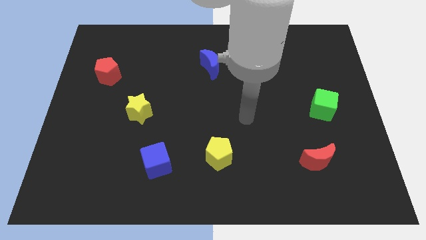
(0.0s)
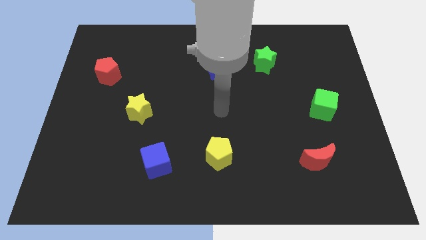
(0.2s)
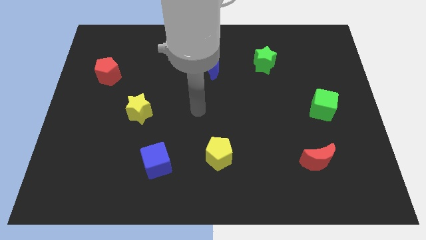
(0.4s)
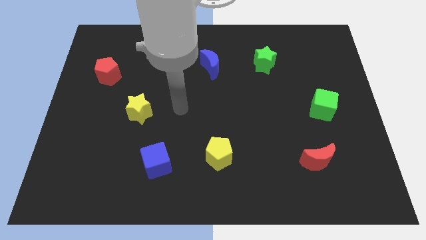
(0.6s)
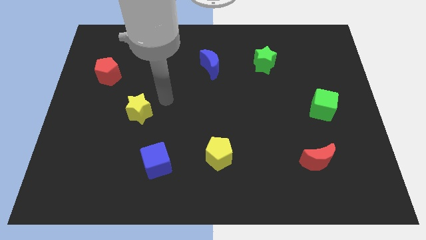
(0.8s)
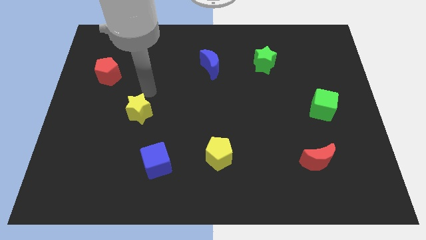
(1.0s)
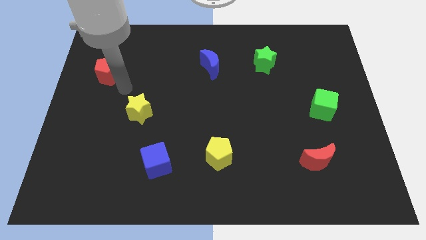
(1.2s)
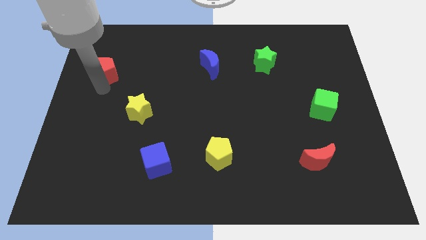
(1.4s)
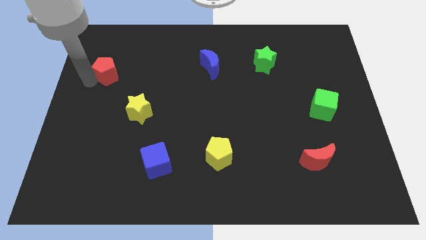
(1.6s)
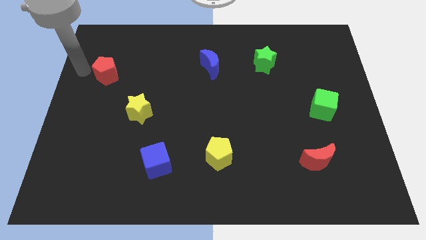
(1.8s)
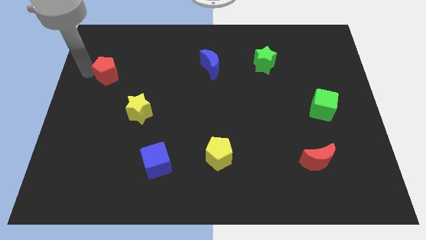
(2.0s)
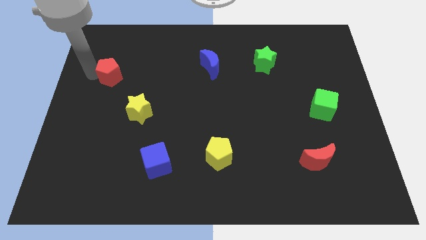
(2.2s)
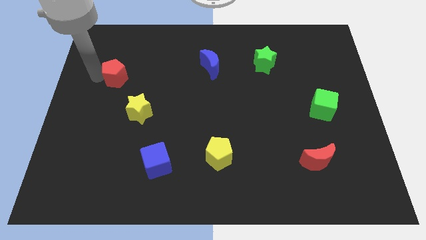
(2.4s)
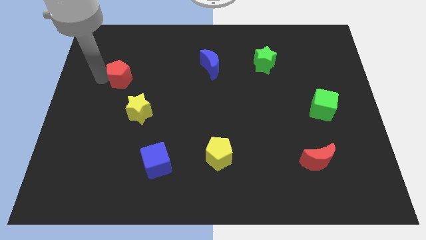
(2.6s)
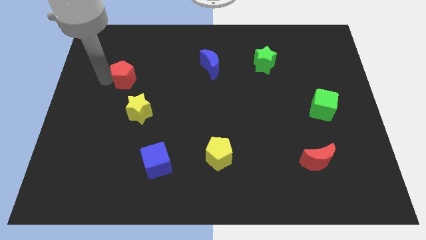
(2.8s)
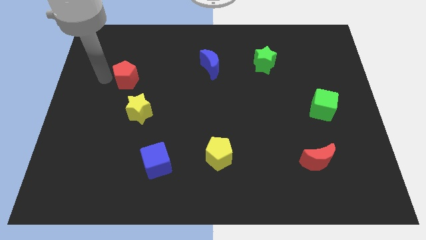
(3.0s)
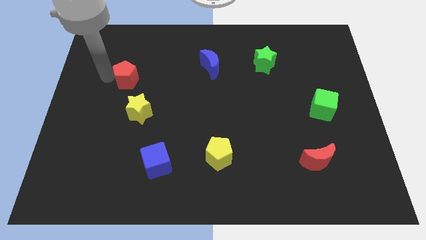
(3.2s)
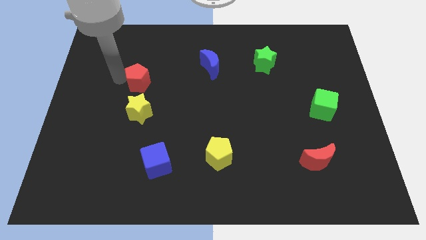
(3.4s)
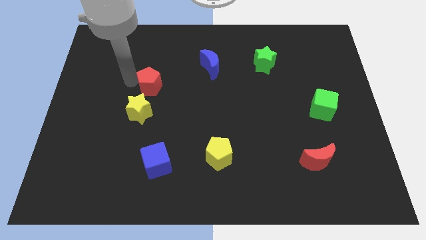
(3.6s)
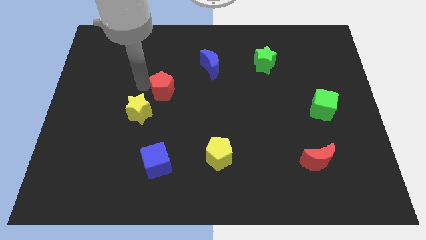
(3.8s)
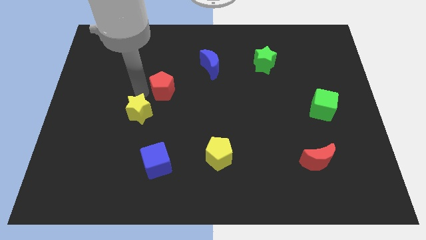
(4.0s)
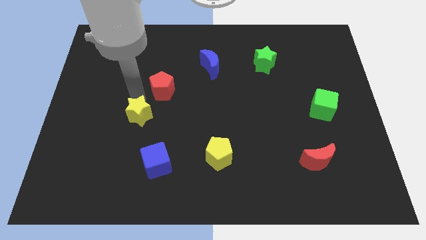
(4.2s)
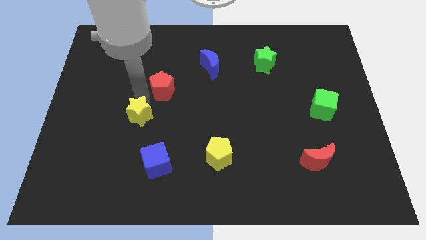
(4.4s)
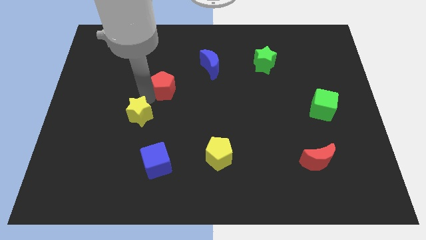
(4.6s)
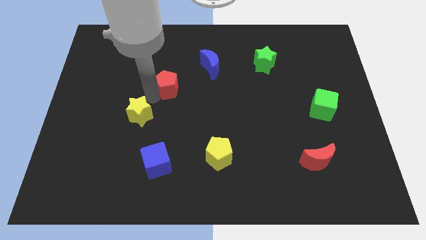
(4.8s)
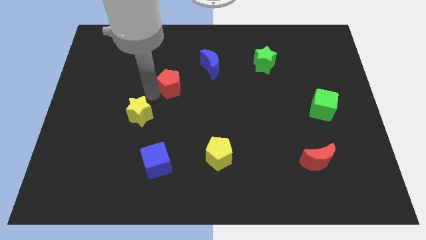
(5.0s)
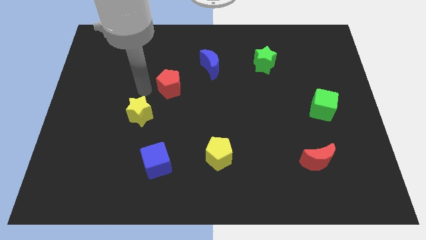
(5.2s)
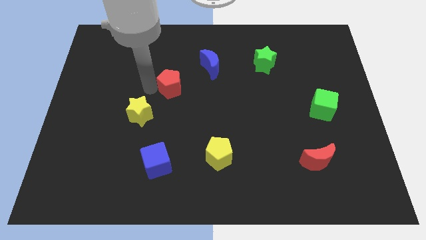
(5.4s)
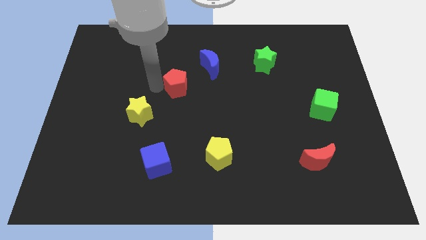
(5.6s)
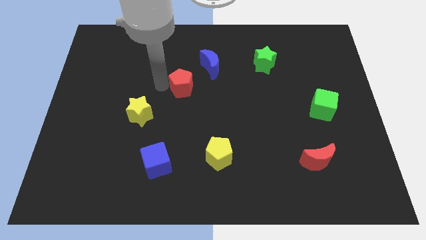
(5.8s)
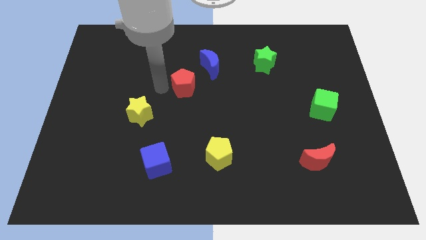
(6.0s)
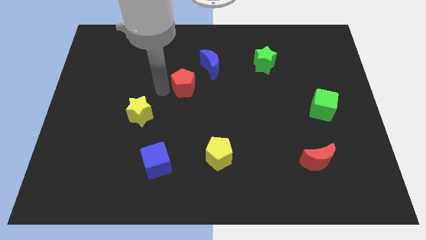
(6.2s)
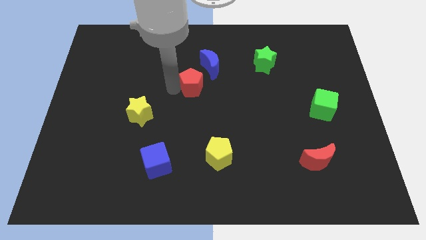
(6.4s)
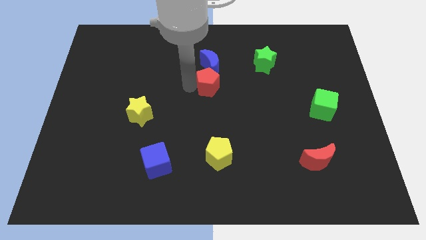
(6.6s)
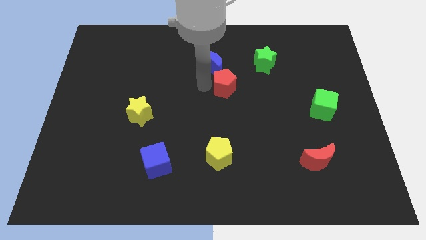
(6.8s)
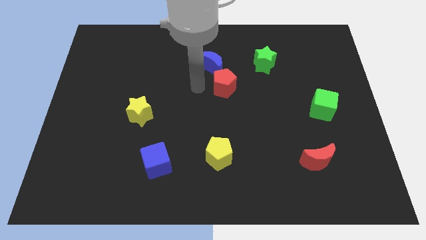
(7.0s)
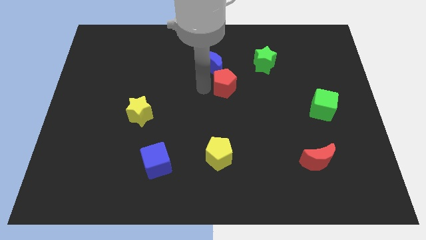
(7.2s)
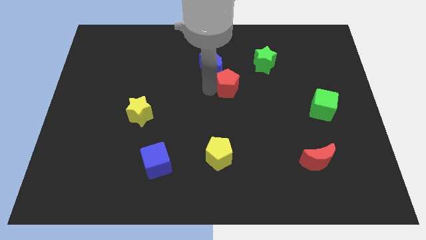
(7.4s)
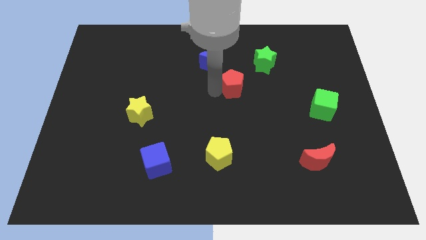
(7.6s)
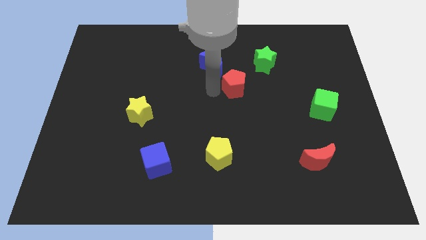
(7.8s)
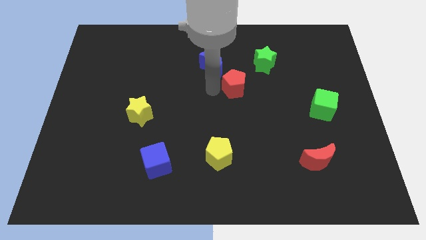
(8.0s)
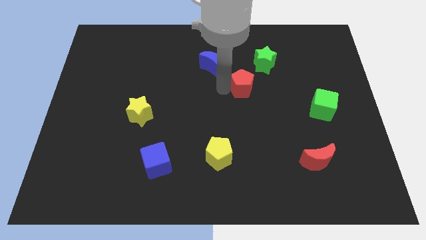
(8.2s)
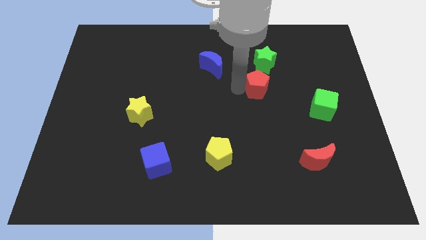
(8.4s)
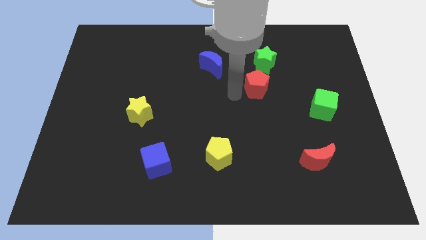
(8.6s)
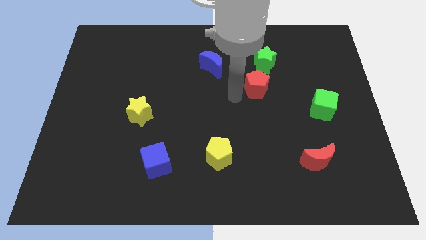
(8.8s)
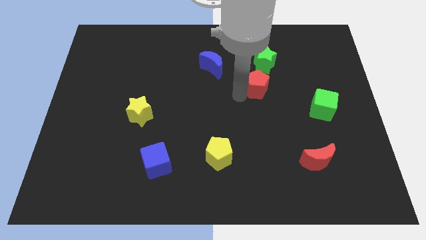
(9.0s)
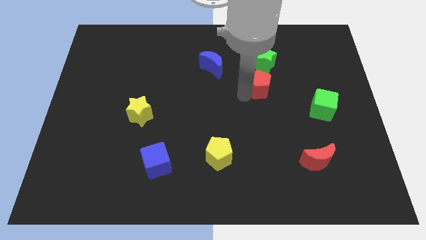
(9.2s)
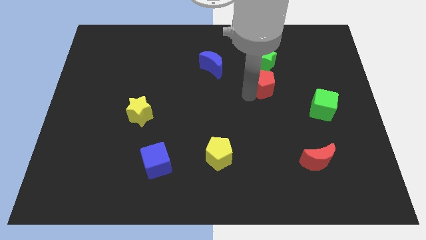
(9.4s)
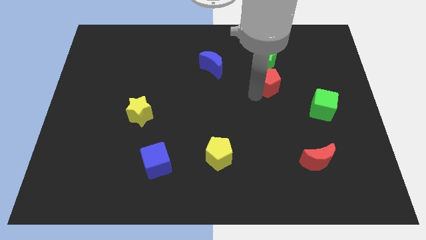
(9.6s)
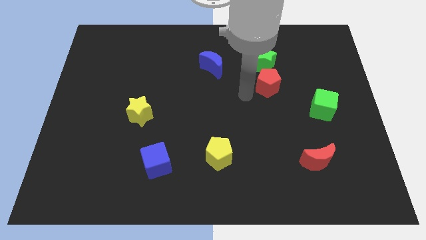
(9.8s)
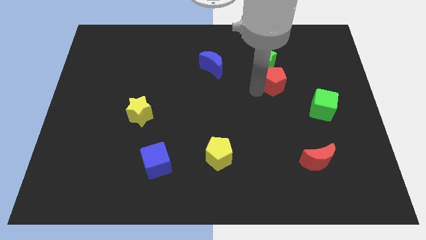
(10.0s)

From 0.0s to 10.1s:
push the red pentagon to the bottom right side of the green star

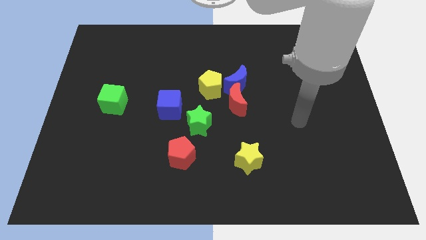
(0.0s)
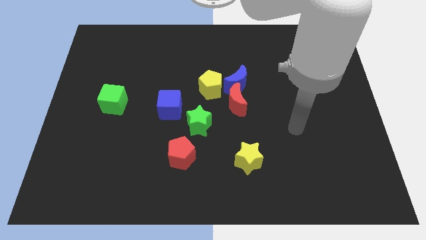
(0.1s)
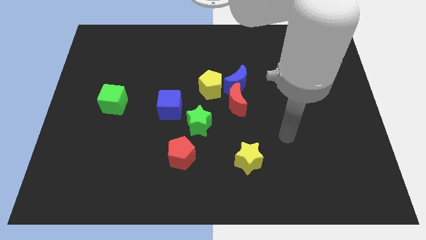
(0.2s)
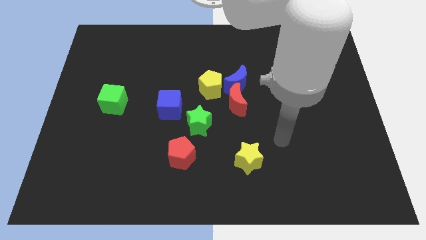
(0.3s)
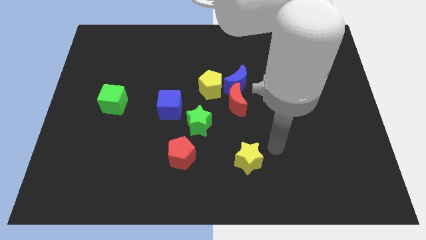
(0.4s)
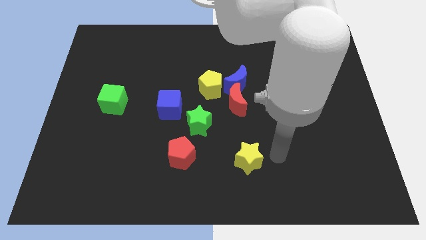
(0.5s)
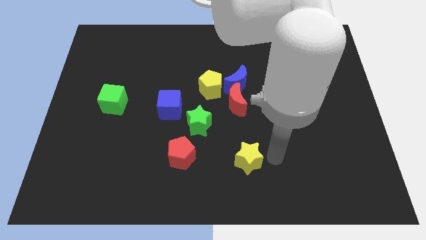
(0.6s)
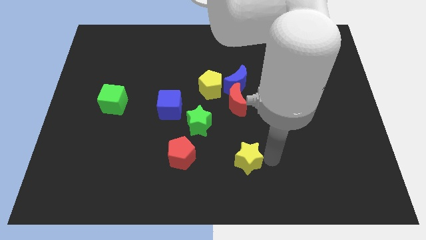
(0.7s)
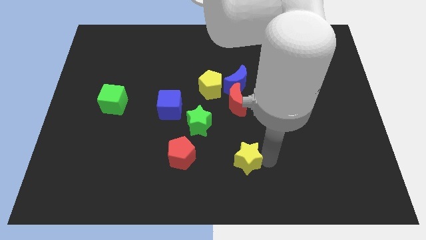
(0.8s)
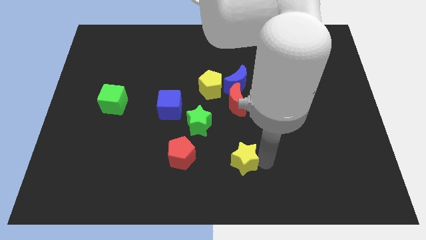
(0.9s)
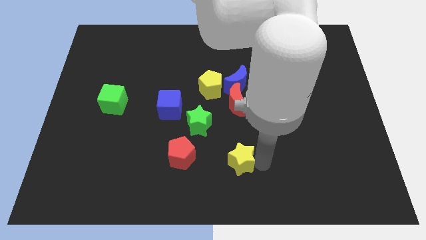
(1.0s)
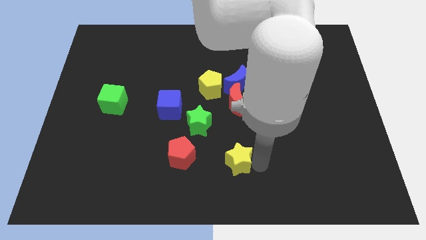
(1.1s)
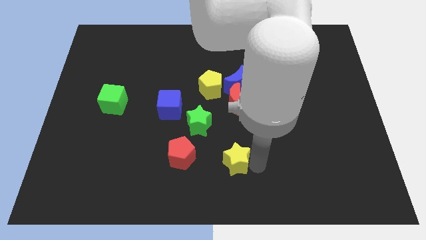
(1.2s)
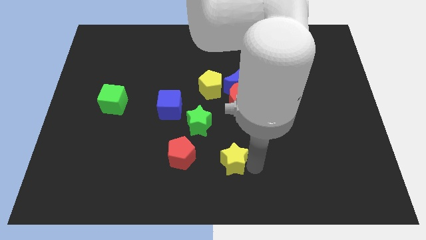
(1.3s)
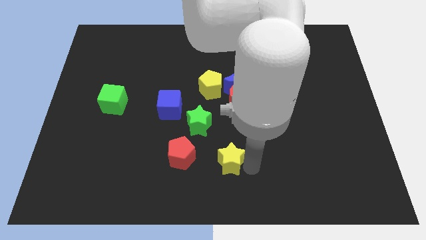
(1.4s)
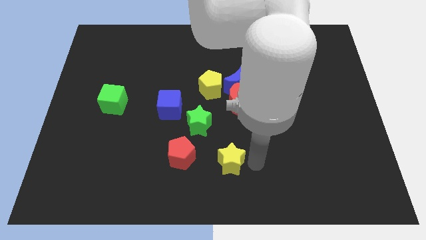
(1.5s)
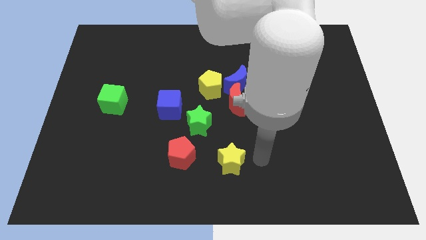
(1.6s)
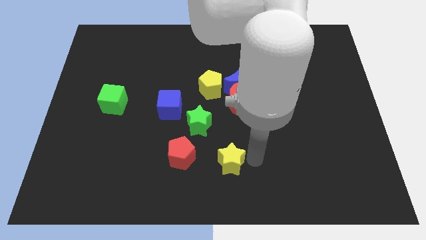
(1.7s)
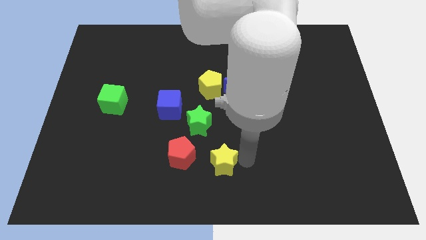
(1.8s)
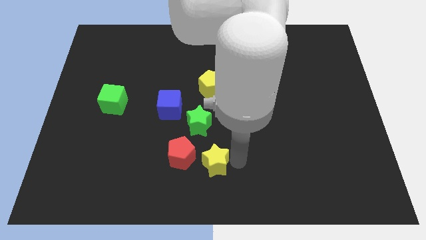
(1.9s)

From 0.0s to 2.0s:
slide the yellow star below the green star
